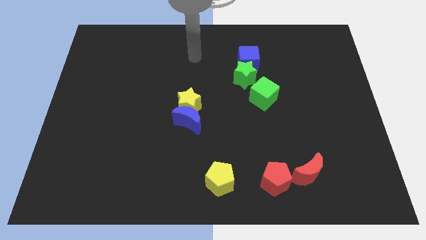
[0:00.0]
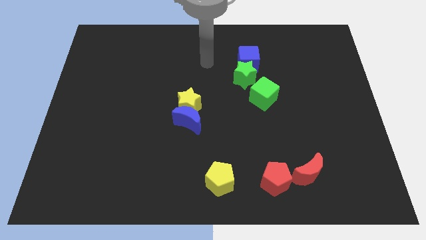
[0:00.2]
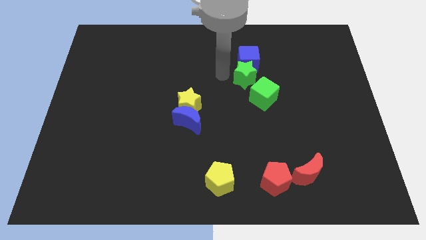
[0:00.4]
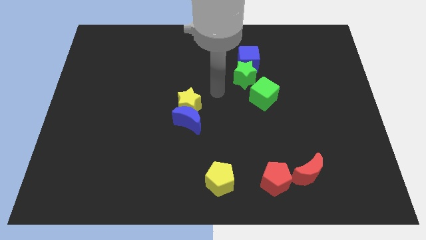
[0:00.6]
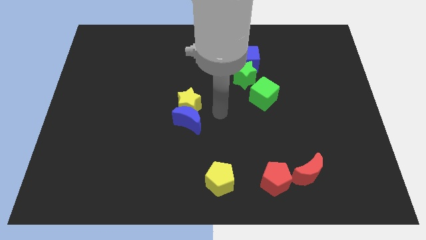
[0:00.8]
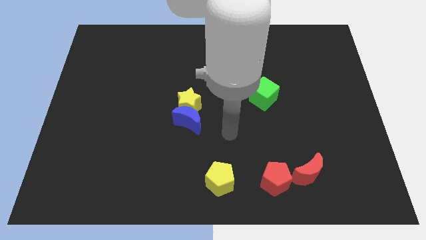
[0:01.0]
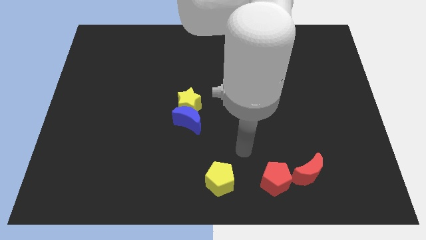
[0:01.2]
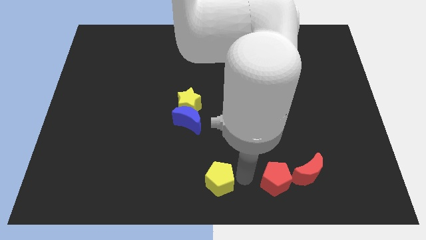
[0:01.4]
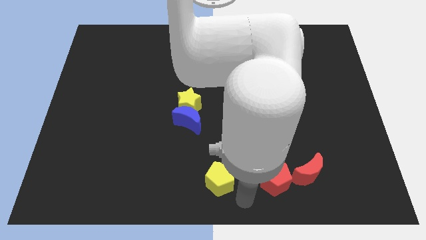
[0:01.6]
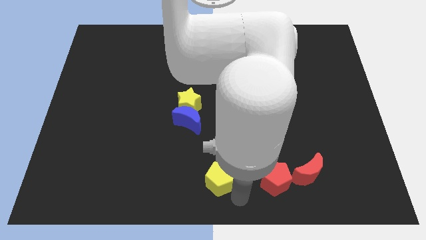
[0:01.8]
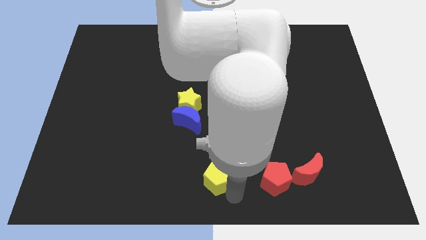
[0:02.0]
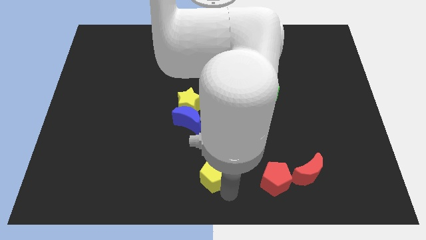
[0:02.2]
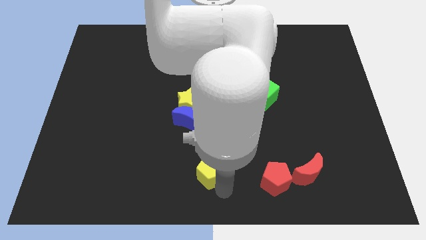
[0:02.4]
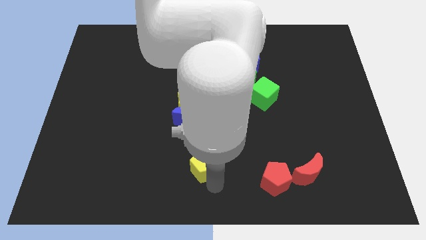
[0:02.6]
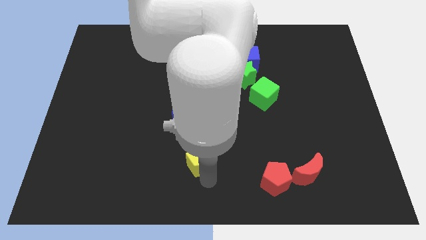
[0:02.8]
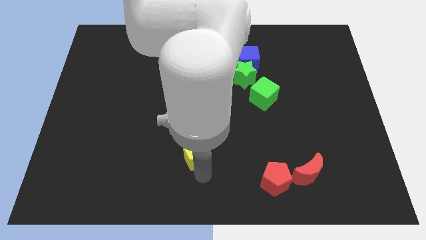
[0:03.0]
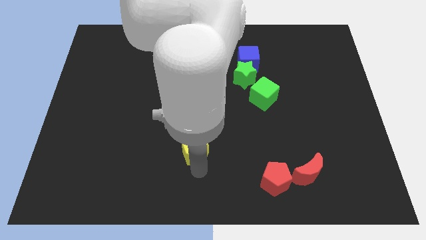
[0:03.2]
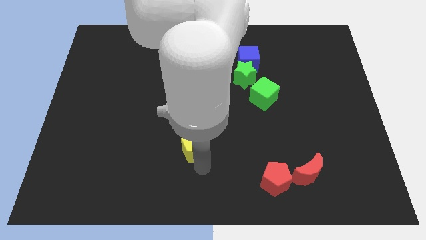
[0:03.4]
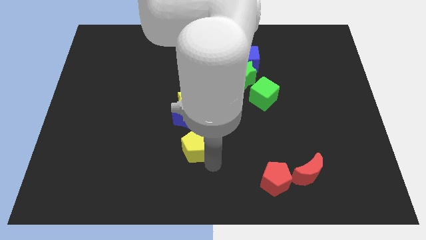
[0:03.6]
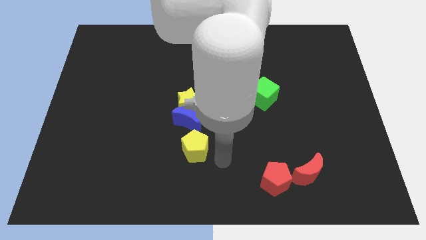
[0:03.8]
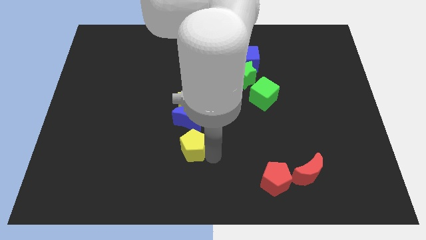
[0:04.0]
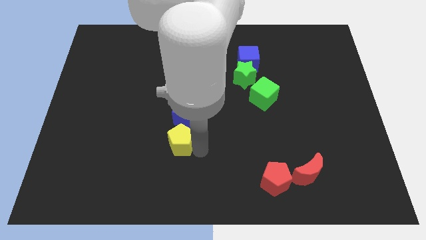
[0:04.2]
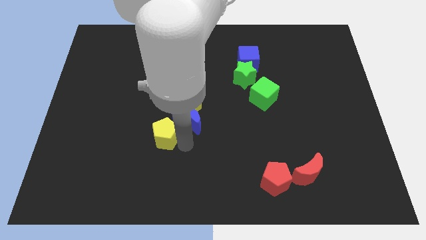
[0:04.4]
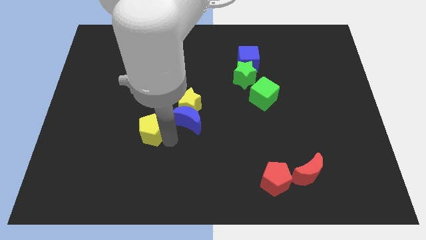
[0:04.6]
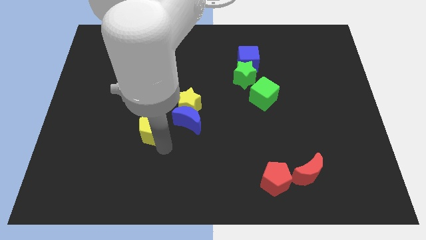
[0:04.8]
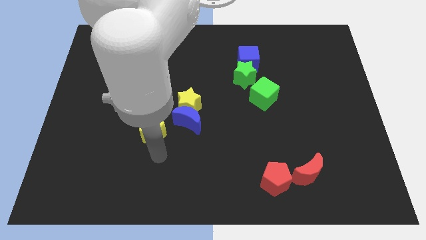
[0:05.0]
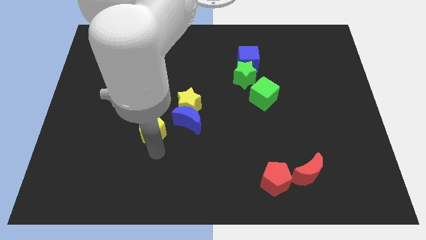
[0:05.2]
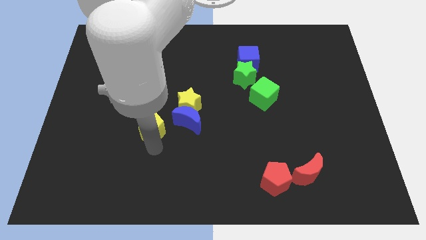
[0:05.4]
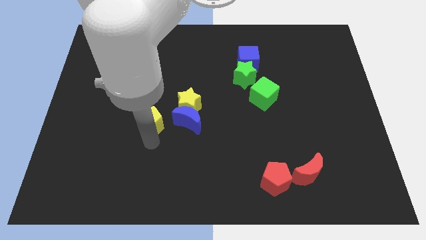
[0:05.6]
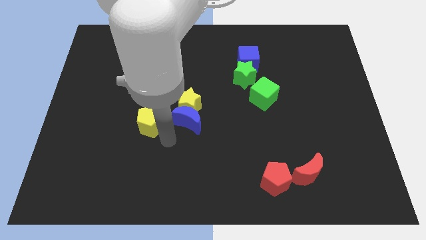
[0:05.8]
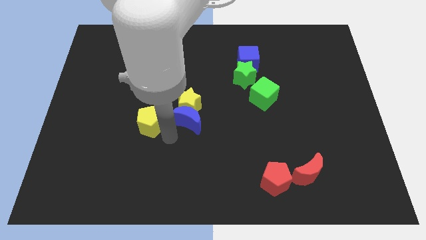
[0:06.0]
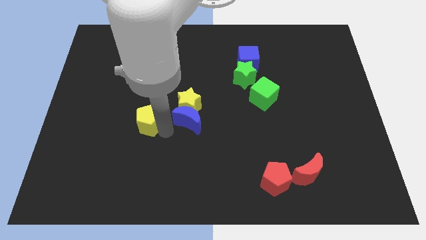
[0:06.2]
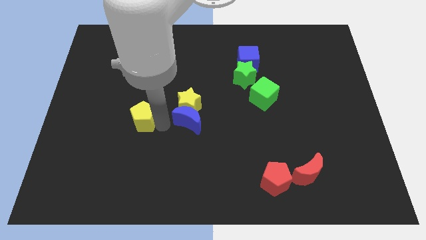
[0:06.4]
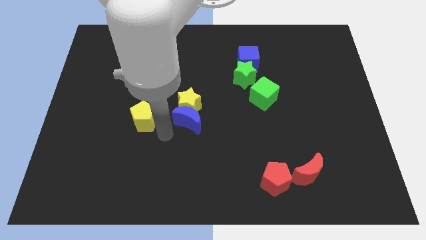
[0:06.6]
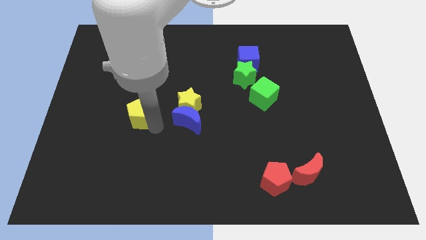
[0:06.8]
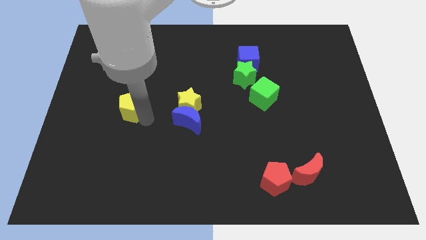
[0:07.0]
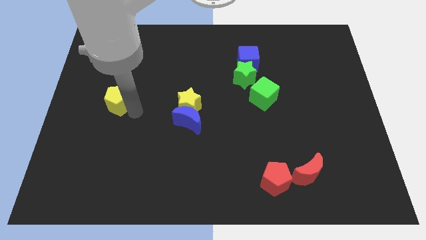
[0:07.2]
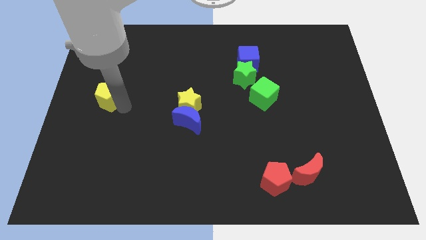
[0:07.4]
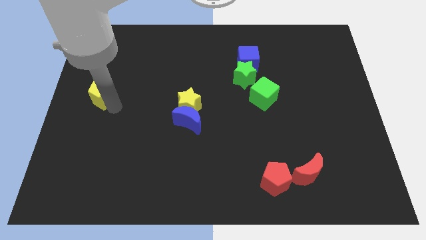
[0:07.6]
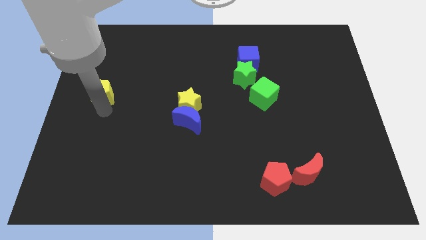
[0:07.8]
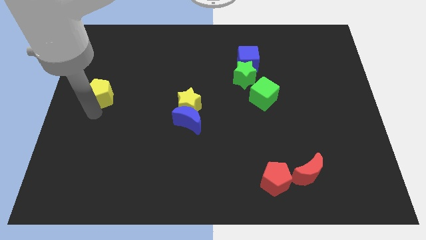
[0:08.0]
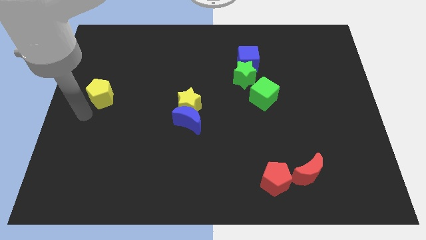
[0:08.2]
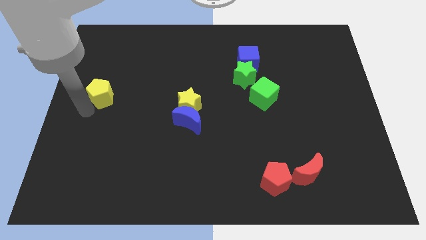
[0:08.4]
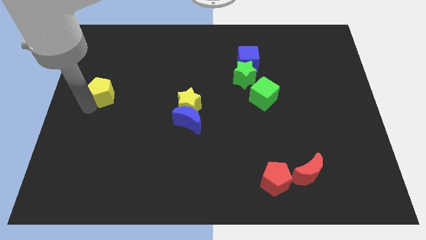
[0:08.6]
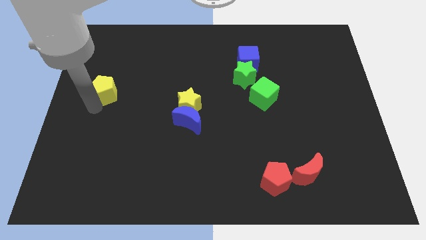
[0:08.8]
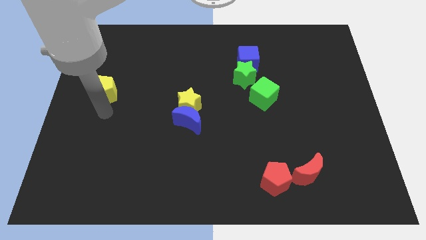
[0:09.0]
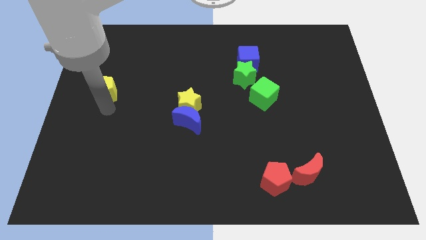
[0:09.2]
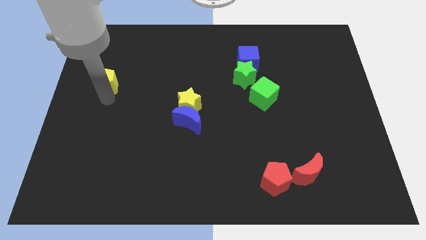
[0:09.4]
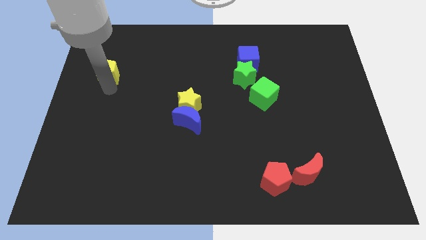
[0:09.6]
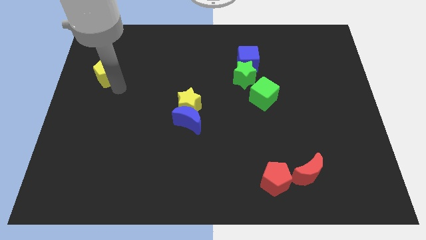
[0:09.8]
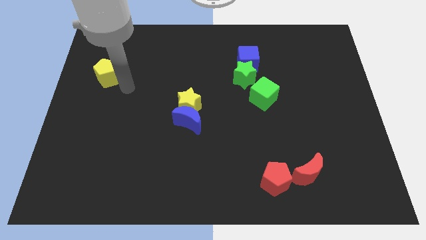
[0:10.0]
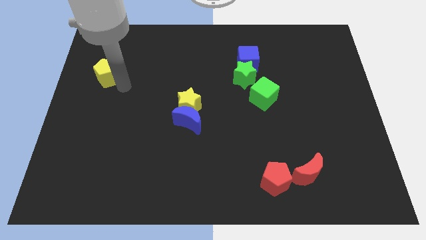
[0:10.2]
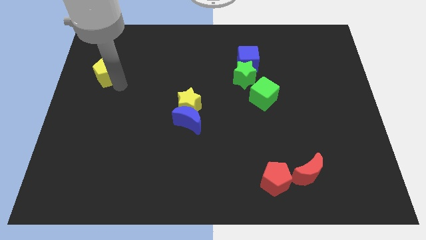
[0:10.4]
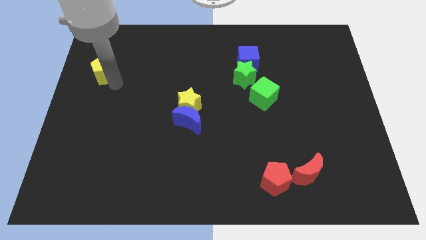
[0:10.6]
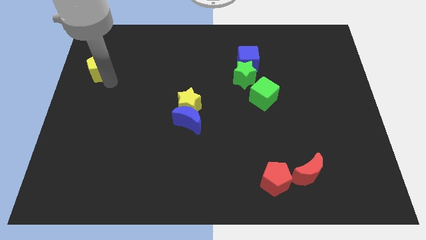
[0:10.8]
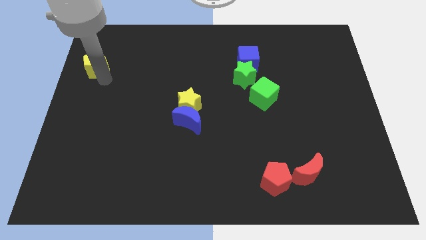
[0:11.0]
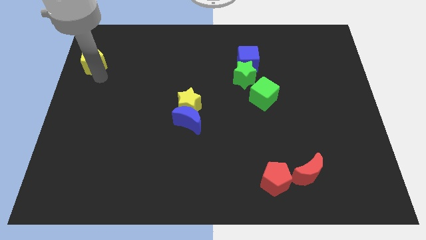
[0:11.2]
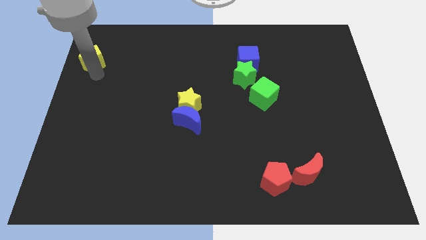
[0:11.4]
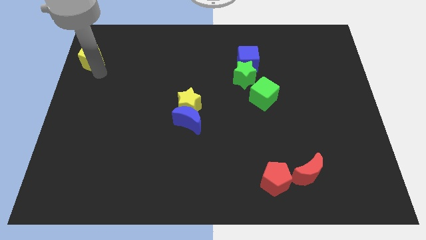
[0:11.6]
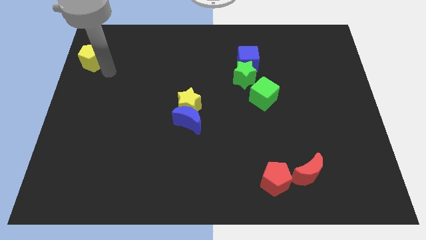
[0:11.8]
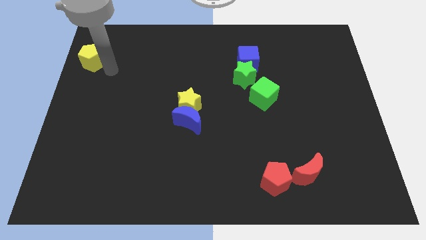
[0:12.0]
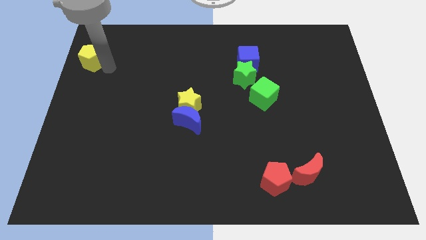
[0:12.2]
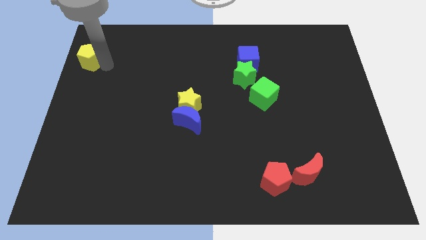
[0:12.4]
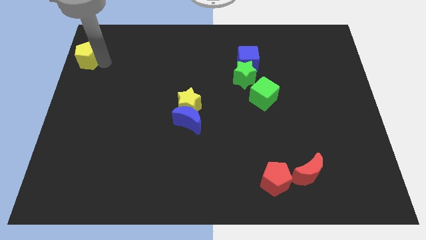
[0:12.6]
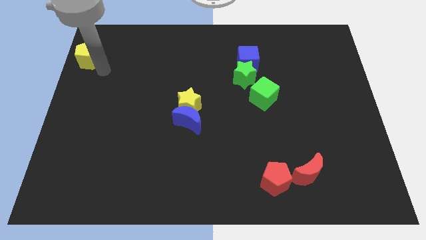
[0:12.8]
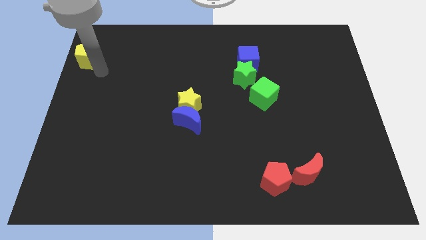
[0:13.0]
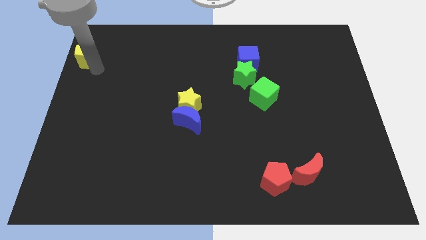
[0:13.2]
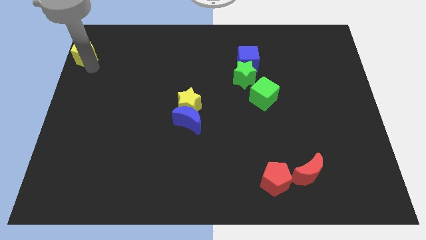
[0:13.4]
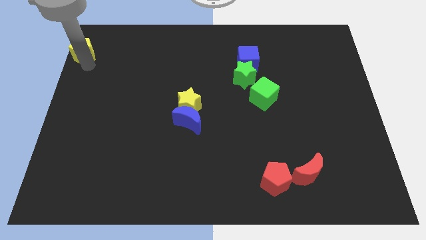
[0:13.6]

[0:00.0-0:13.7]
put the yellow pentagon to the top left corner
